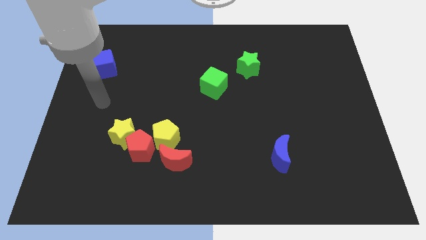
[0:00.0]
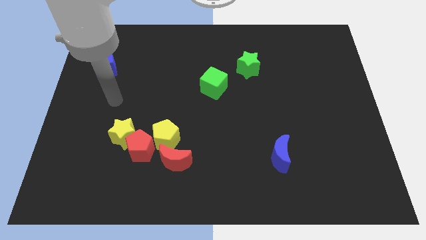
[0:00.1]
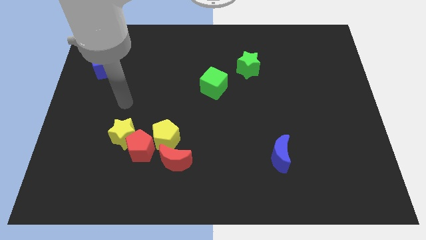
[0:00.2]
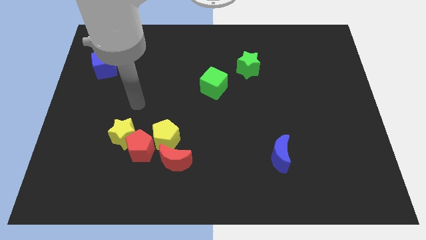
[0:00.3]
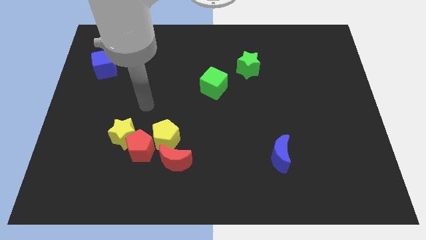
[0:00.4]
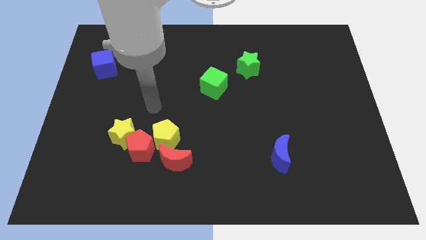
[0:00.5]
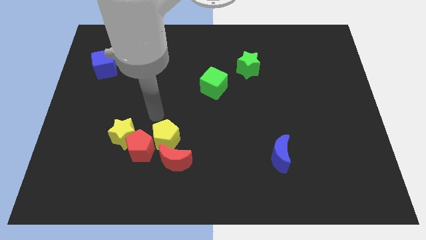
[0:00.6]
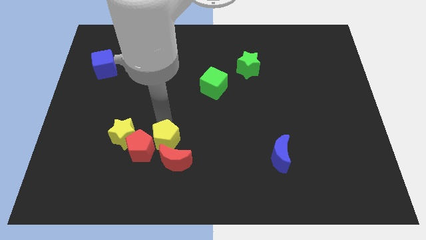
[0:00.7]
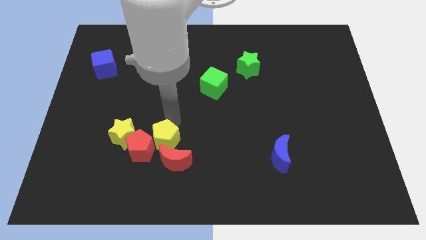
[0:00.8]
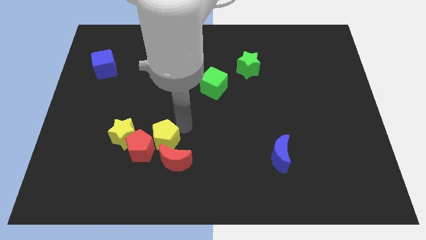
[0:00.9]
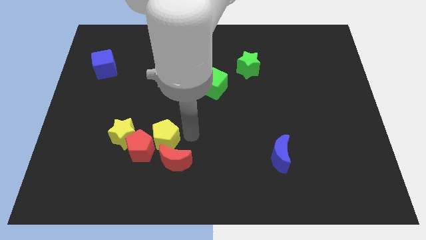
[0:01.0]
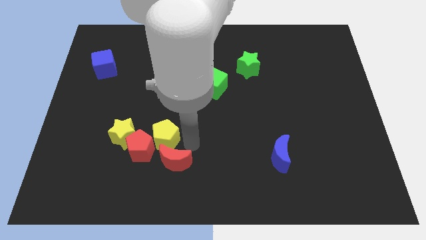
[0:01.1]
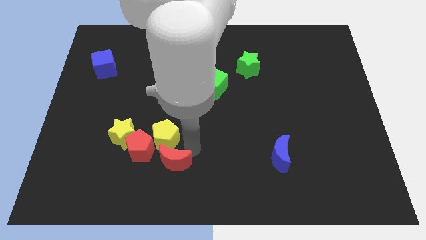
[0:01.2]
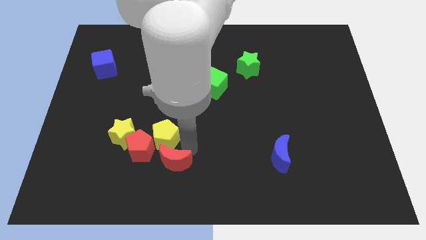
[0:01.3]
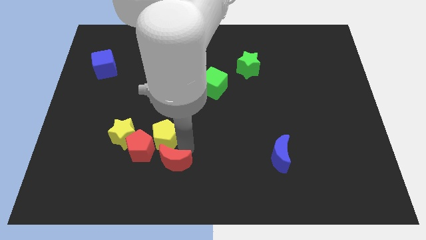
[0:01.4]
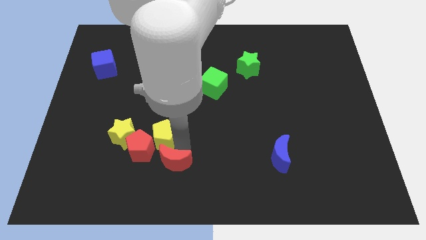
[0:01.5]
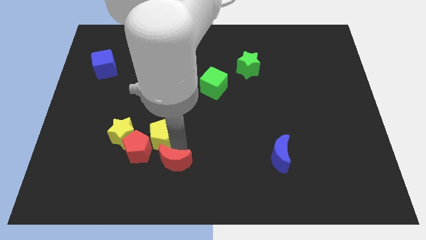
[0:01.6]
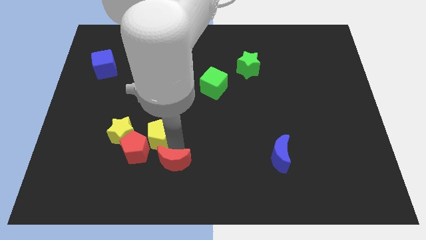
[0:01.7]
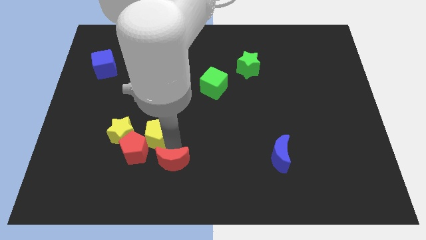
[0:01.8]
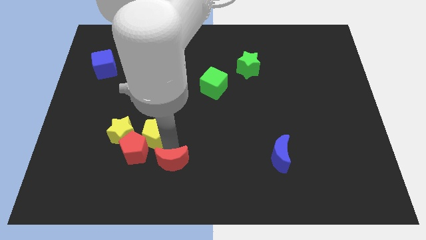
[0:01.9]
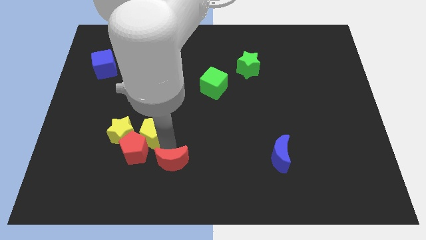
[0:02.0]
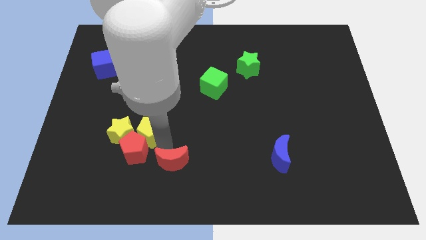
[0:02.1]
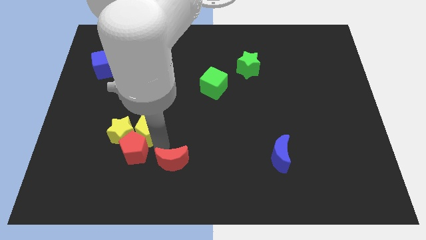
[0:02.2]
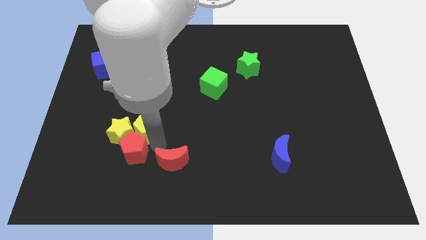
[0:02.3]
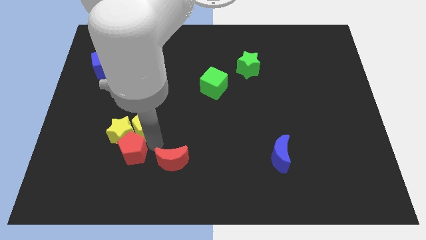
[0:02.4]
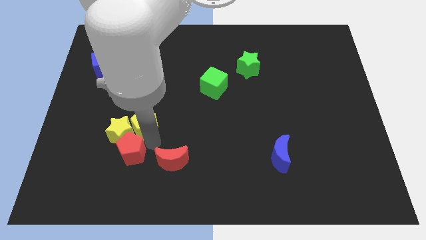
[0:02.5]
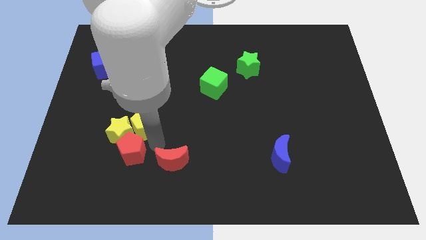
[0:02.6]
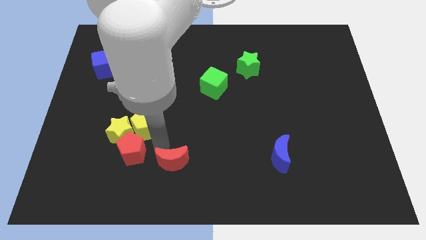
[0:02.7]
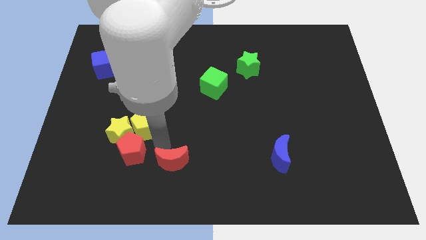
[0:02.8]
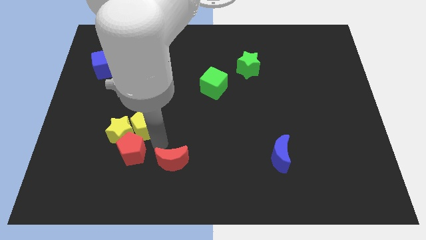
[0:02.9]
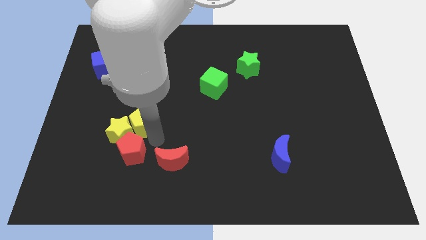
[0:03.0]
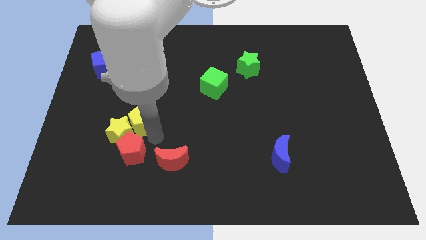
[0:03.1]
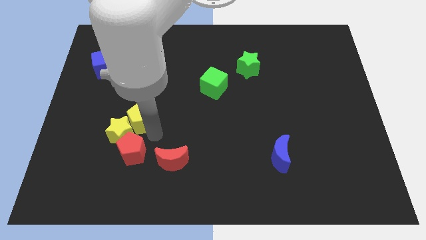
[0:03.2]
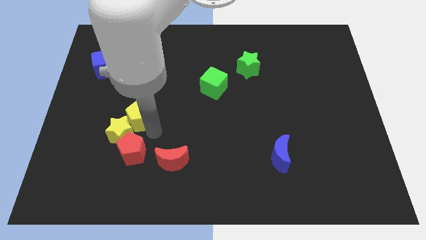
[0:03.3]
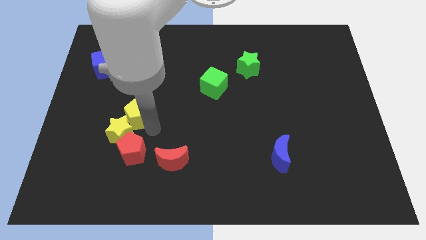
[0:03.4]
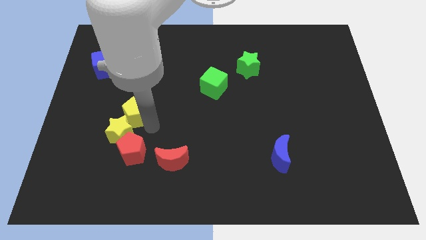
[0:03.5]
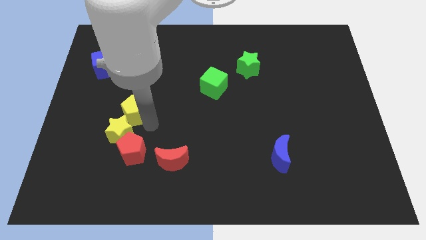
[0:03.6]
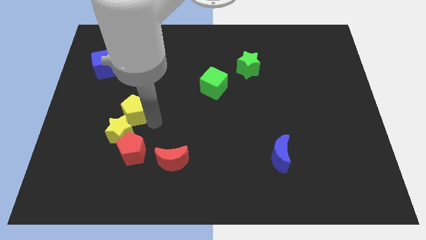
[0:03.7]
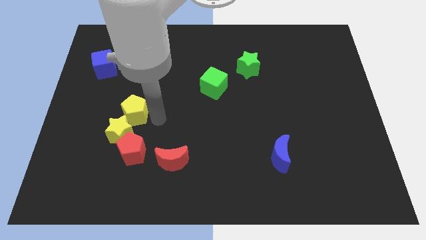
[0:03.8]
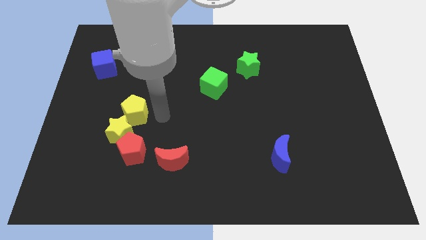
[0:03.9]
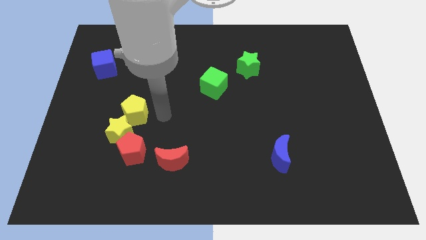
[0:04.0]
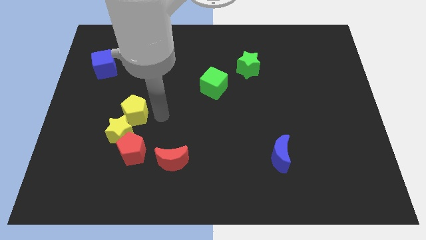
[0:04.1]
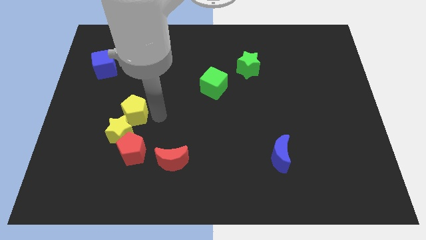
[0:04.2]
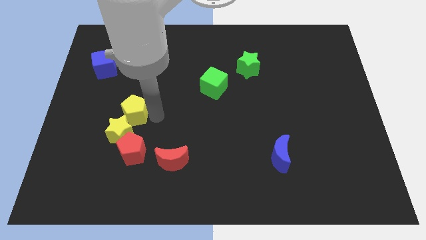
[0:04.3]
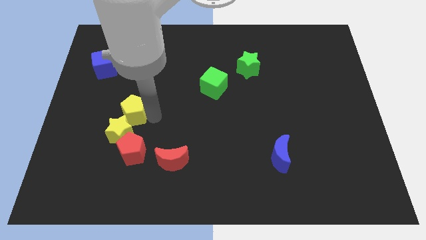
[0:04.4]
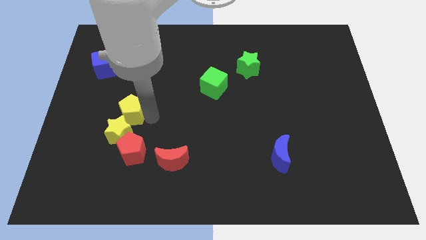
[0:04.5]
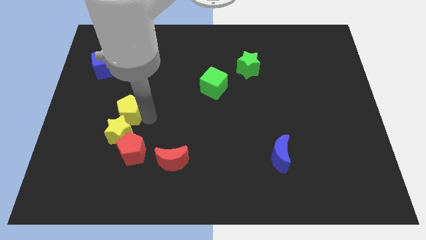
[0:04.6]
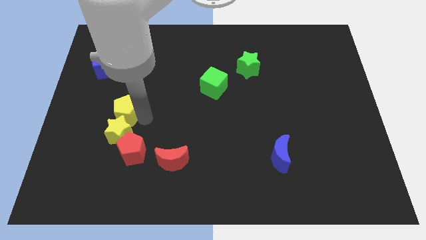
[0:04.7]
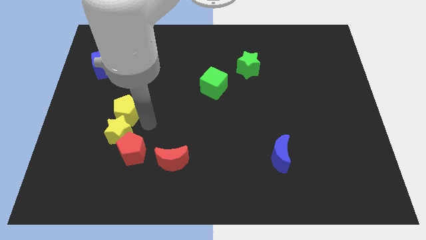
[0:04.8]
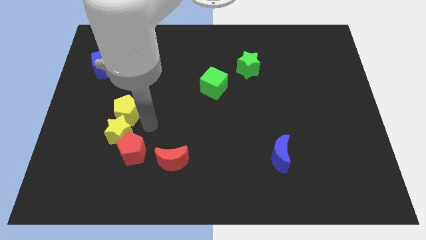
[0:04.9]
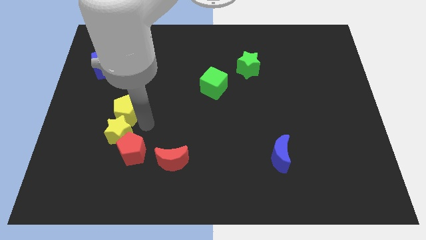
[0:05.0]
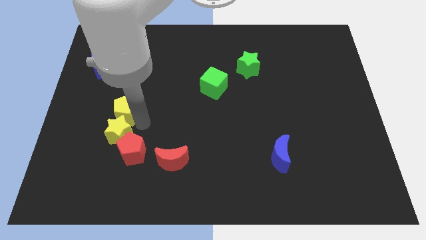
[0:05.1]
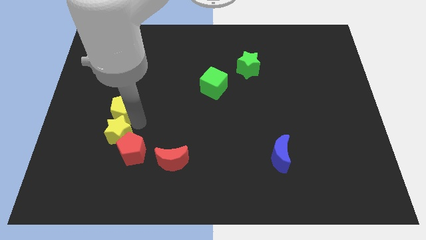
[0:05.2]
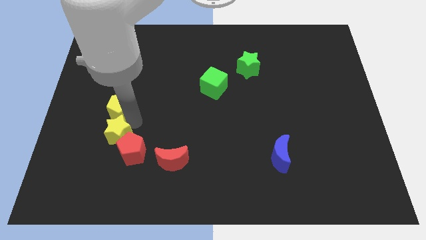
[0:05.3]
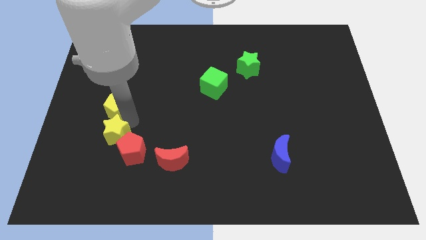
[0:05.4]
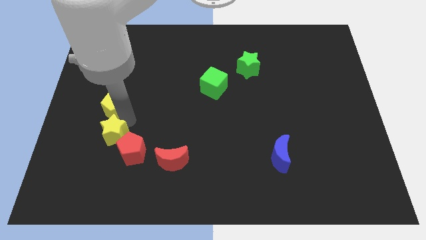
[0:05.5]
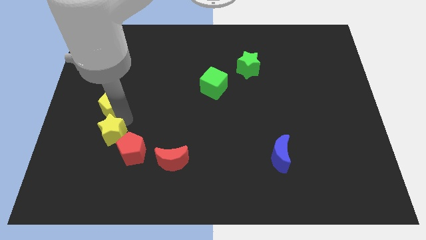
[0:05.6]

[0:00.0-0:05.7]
slide the yellow pentagon to the bottom side of the blue cube

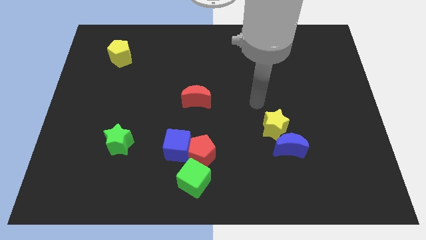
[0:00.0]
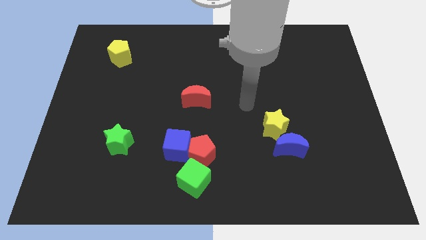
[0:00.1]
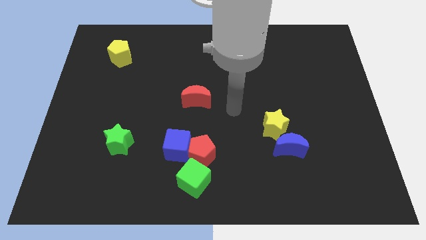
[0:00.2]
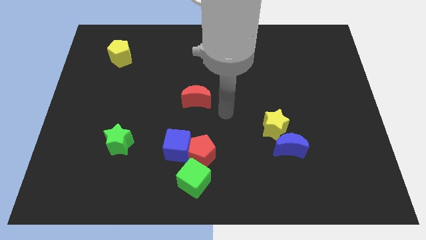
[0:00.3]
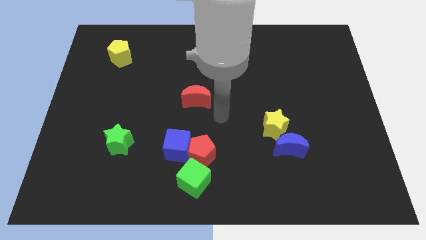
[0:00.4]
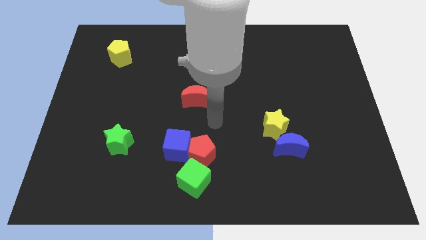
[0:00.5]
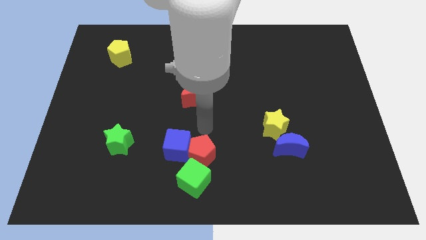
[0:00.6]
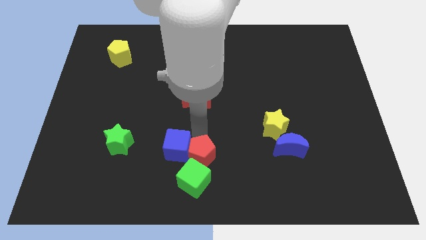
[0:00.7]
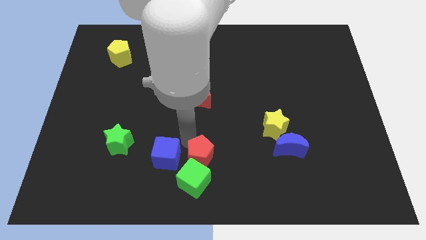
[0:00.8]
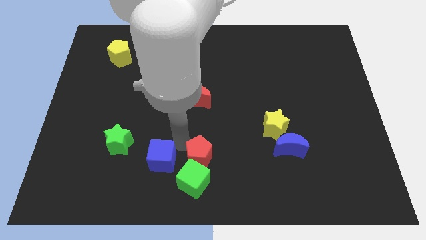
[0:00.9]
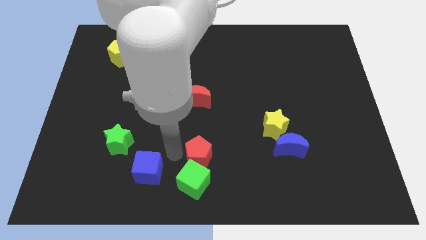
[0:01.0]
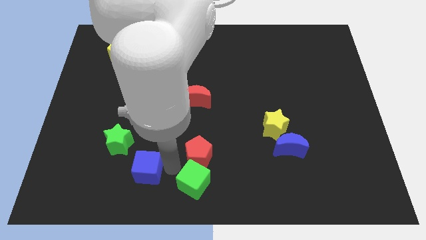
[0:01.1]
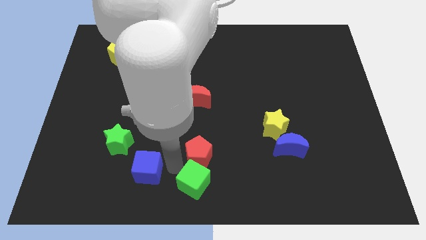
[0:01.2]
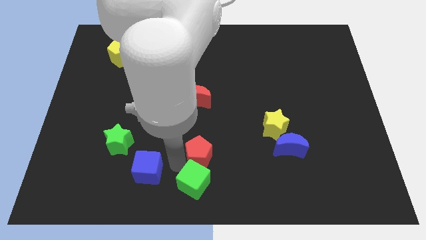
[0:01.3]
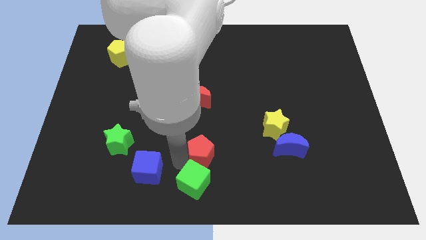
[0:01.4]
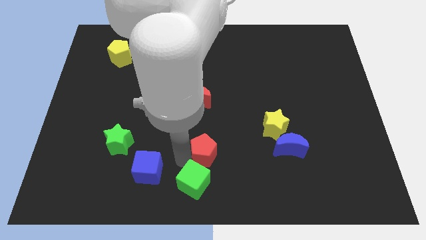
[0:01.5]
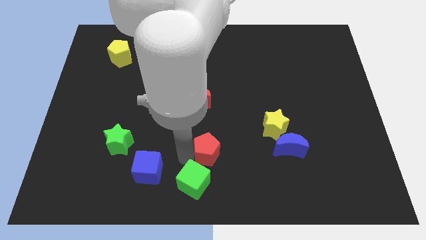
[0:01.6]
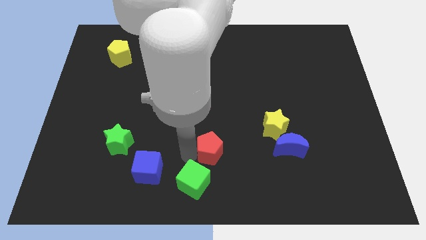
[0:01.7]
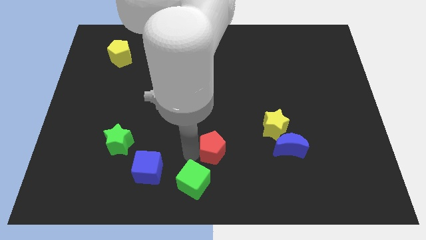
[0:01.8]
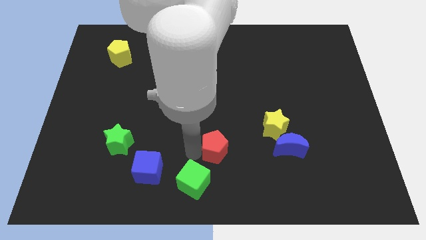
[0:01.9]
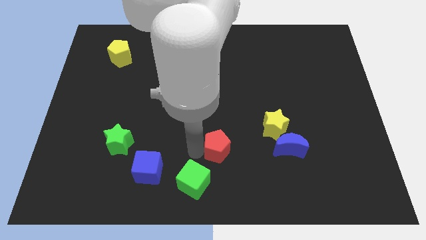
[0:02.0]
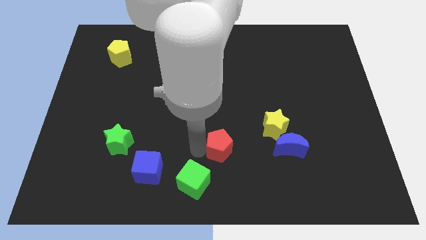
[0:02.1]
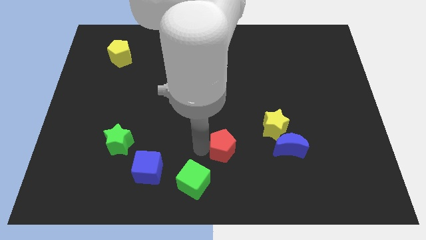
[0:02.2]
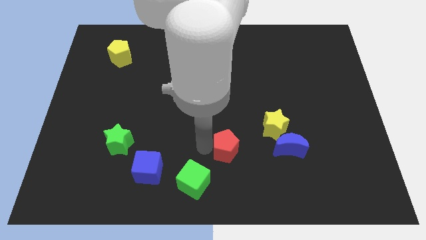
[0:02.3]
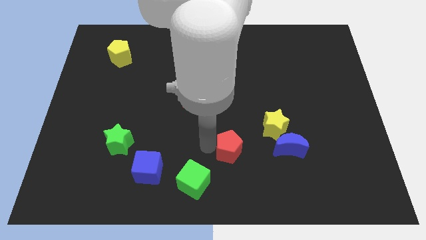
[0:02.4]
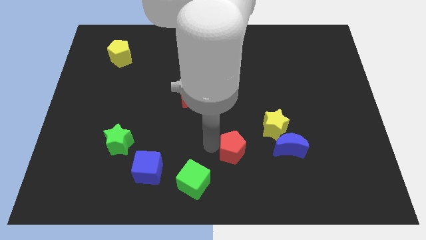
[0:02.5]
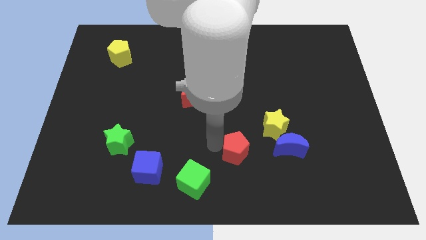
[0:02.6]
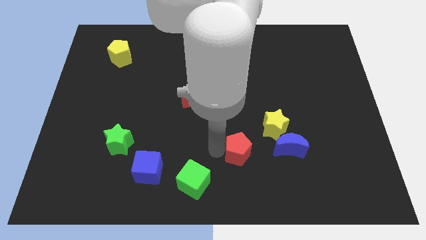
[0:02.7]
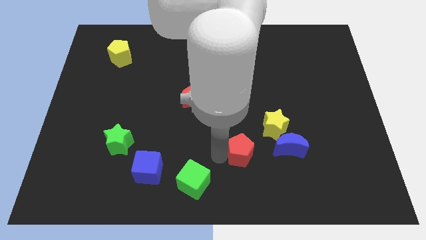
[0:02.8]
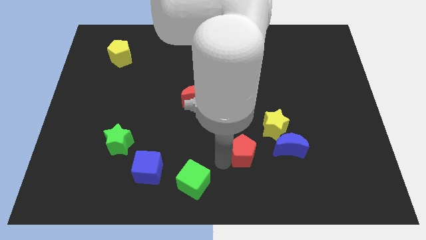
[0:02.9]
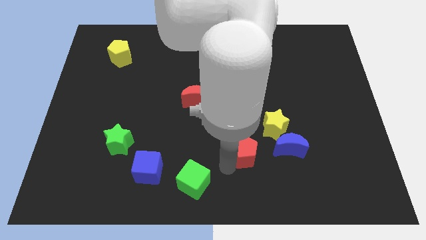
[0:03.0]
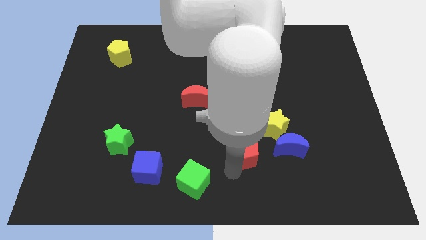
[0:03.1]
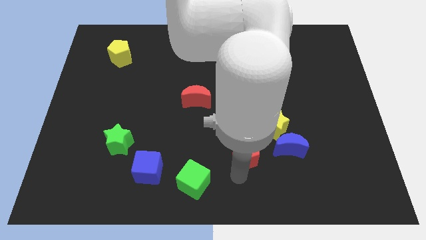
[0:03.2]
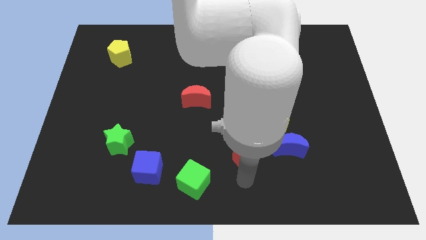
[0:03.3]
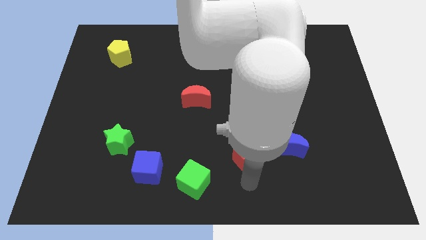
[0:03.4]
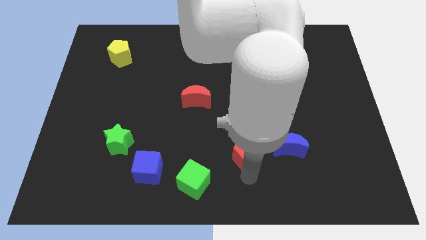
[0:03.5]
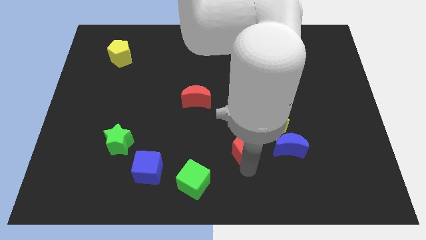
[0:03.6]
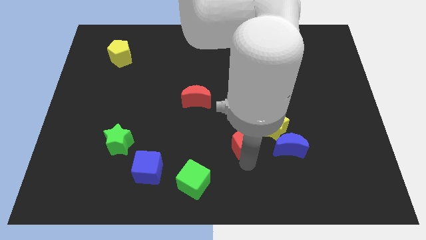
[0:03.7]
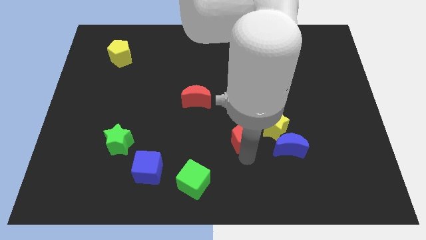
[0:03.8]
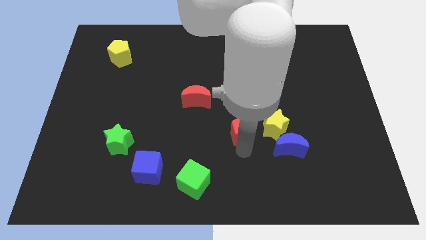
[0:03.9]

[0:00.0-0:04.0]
put the red pentagon diagonally up and to the left of the blue moon
